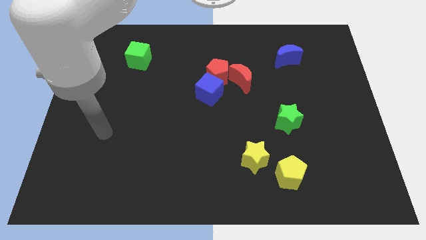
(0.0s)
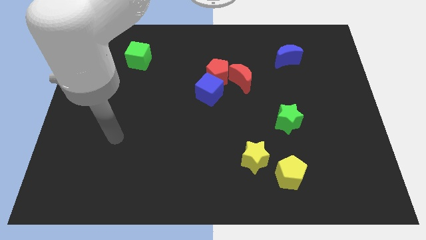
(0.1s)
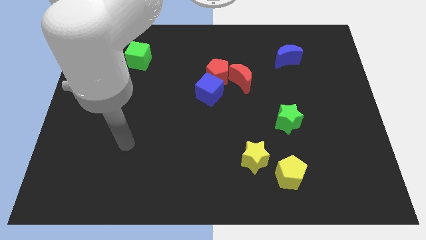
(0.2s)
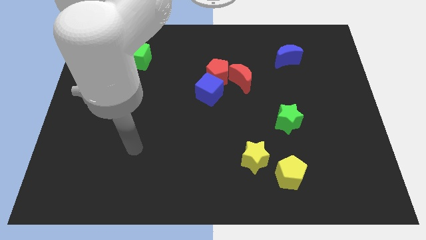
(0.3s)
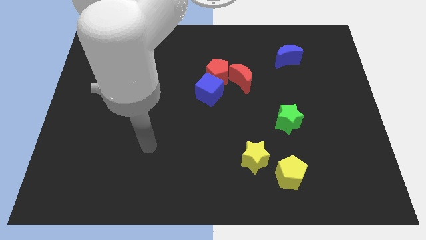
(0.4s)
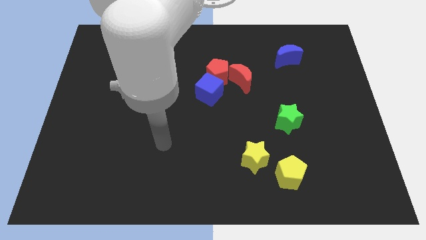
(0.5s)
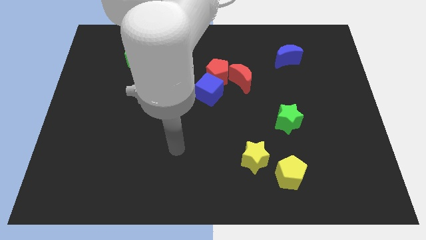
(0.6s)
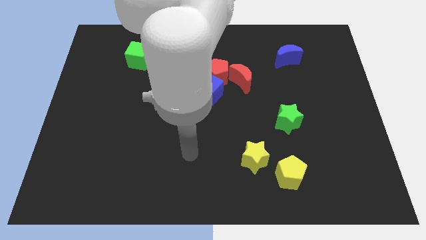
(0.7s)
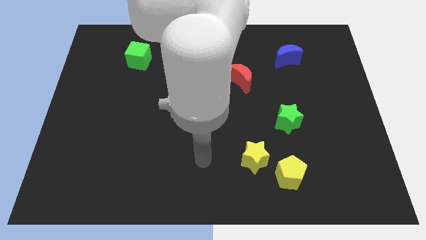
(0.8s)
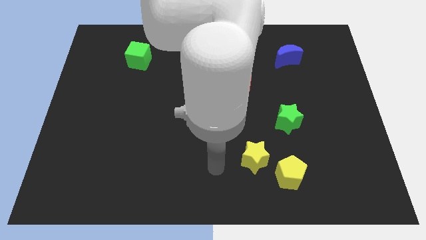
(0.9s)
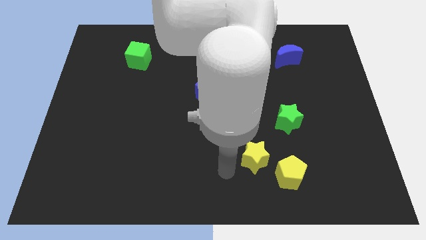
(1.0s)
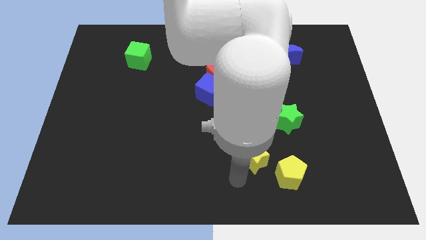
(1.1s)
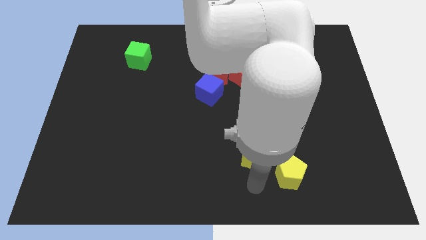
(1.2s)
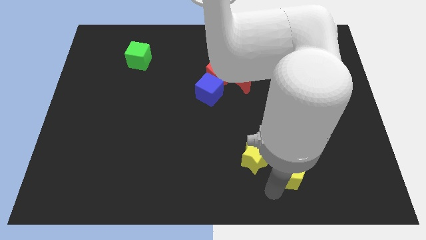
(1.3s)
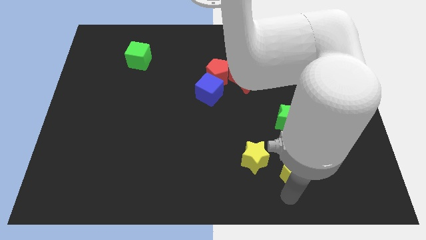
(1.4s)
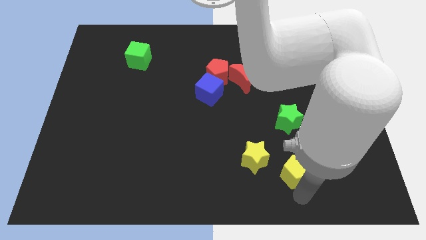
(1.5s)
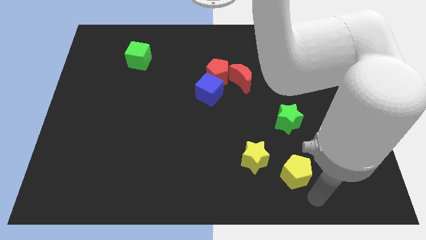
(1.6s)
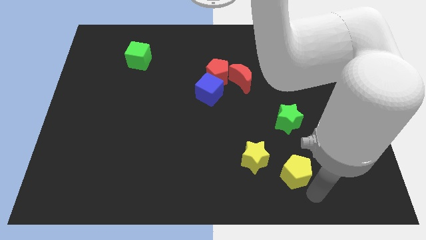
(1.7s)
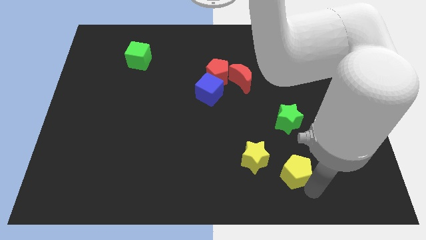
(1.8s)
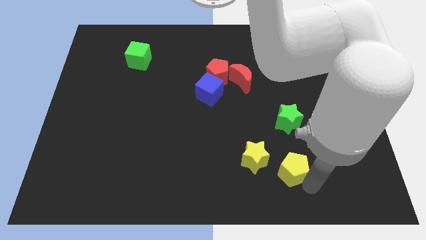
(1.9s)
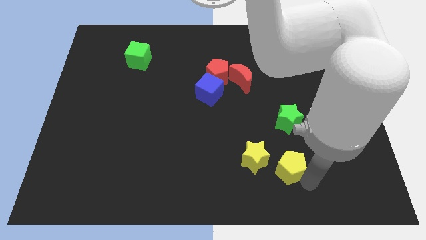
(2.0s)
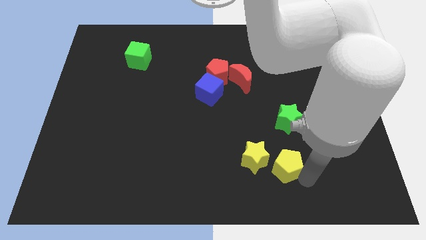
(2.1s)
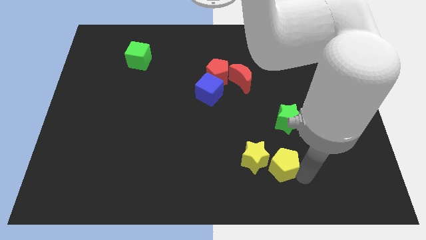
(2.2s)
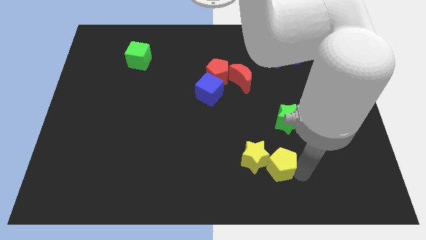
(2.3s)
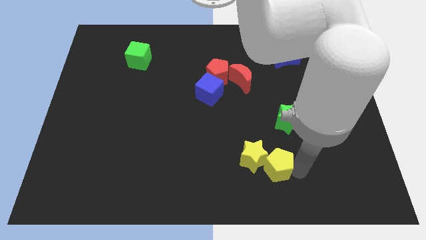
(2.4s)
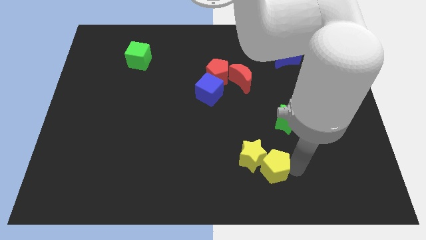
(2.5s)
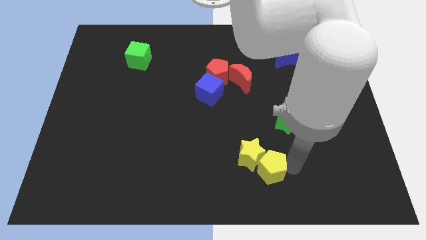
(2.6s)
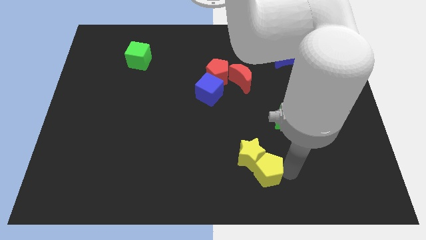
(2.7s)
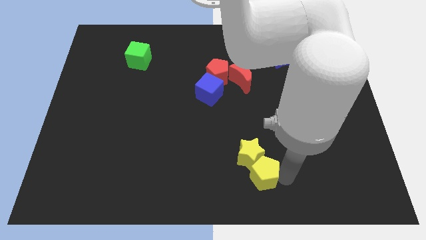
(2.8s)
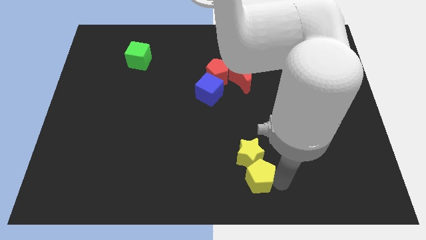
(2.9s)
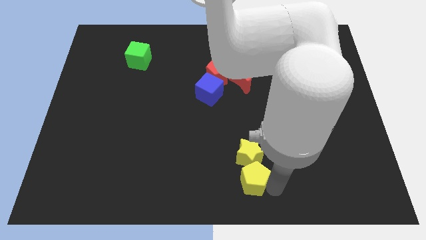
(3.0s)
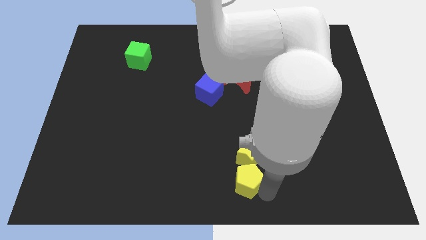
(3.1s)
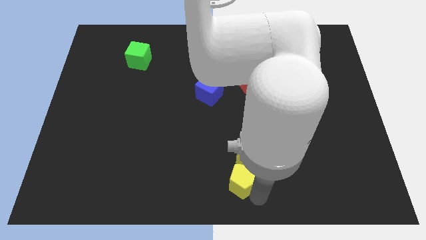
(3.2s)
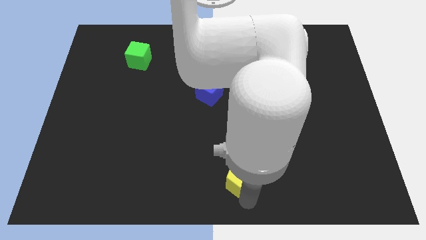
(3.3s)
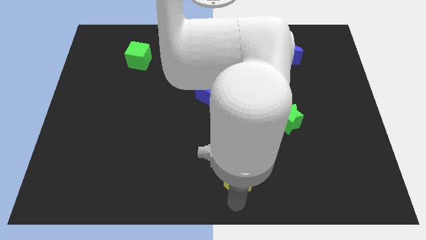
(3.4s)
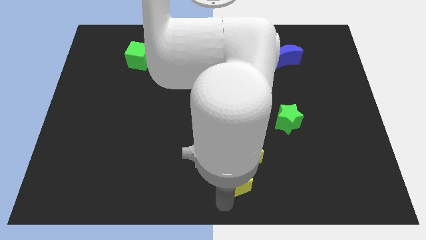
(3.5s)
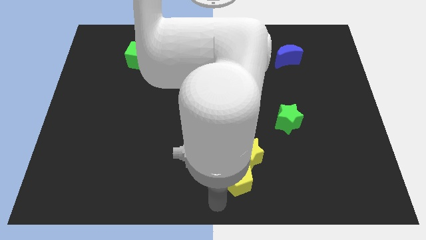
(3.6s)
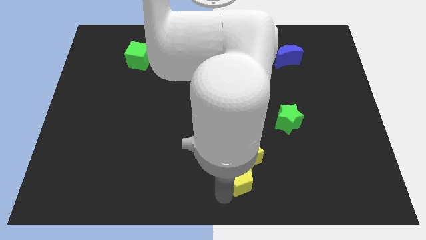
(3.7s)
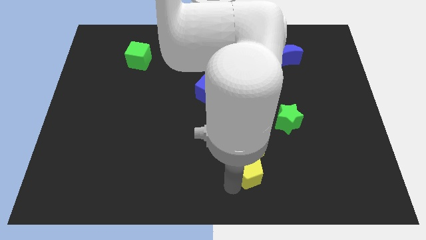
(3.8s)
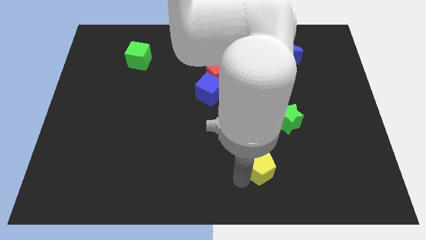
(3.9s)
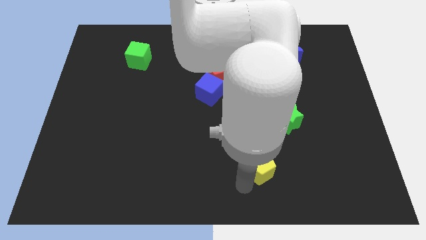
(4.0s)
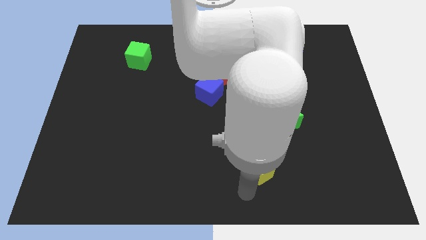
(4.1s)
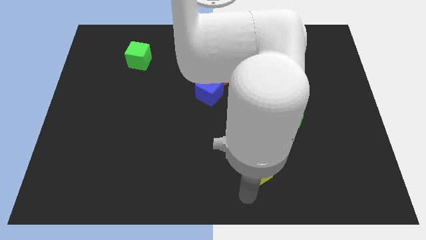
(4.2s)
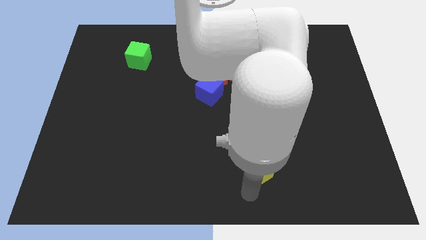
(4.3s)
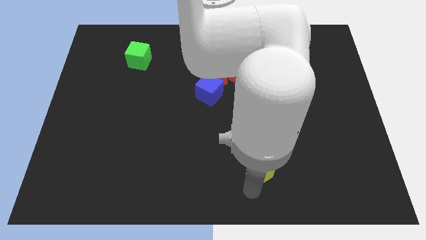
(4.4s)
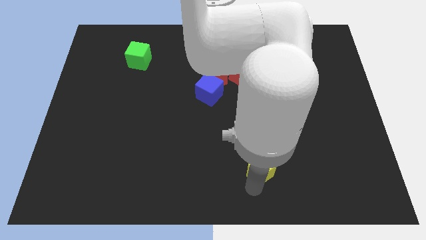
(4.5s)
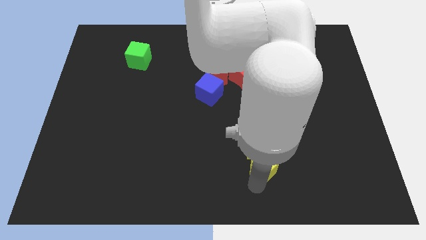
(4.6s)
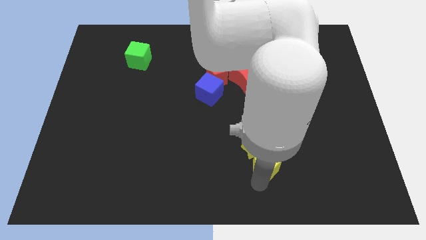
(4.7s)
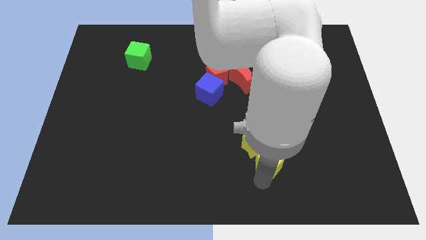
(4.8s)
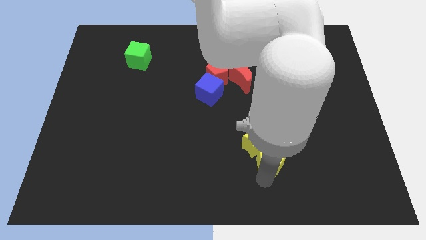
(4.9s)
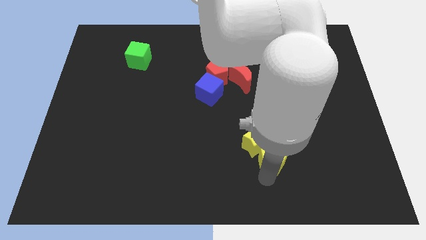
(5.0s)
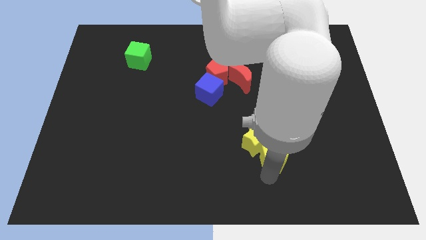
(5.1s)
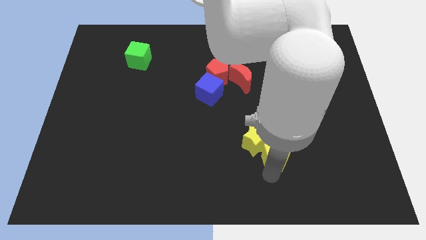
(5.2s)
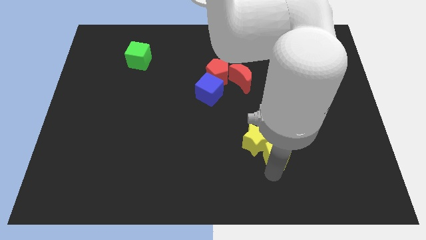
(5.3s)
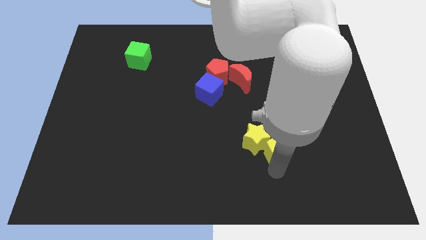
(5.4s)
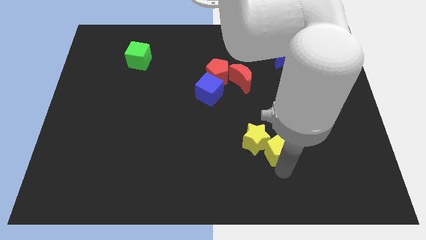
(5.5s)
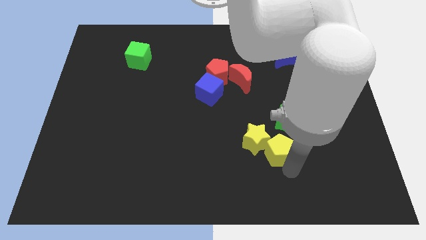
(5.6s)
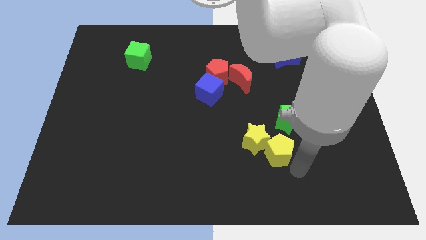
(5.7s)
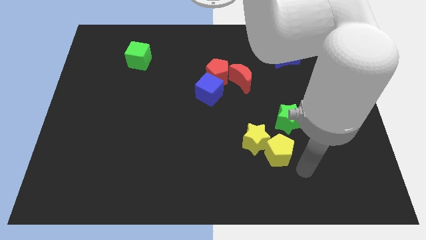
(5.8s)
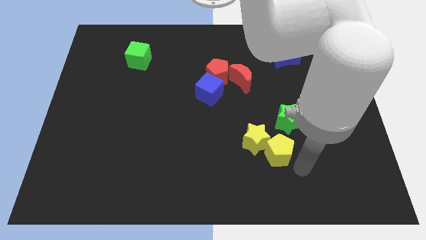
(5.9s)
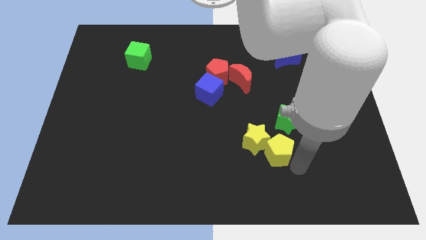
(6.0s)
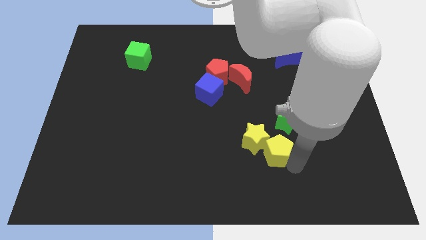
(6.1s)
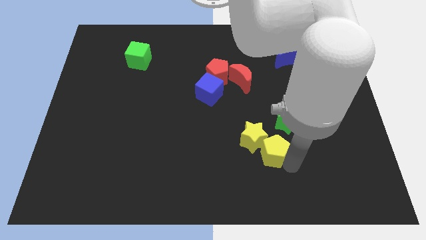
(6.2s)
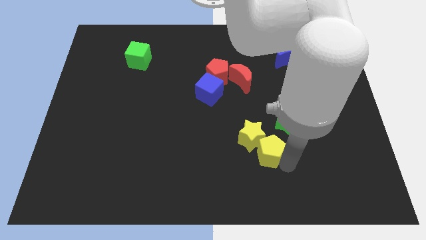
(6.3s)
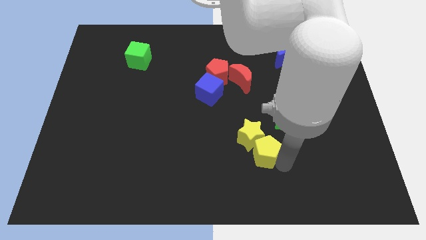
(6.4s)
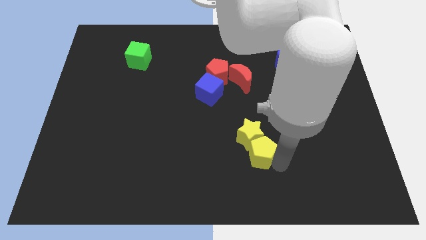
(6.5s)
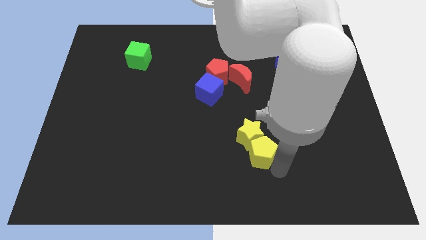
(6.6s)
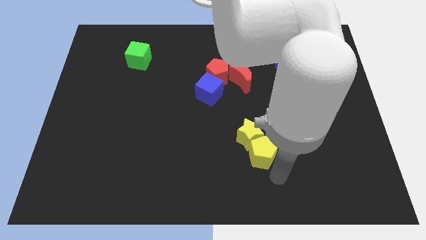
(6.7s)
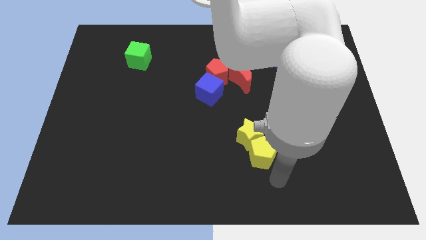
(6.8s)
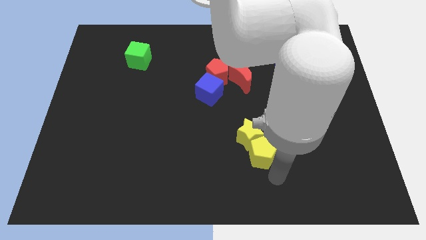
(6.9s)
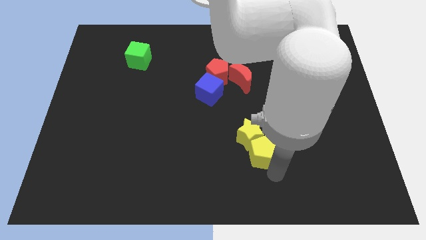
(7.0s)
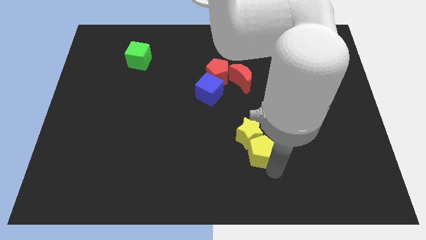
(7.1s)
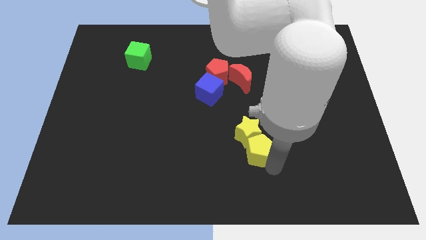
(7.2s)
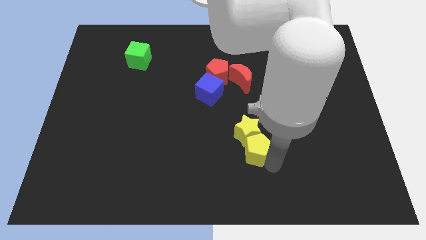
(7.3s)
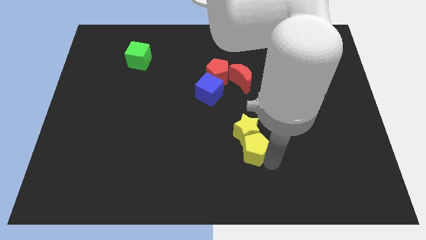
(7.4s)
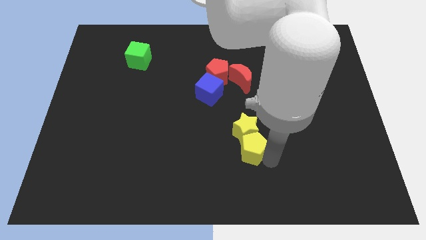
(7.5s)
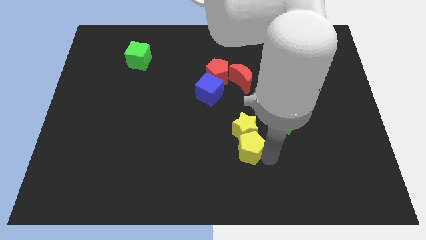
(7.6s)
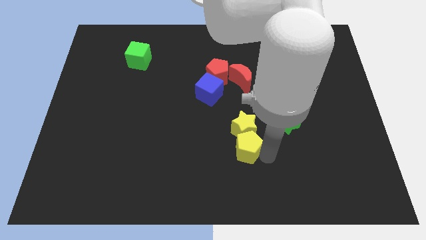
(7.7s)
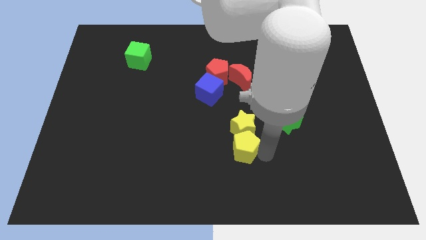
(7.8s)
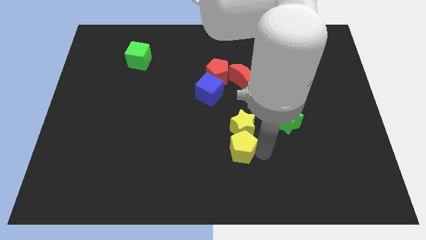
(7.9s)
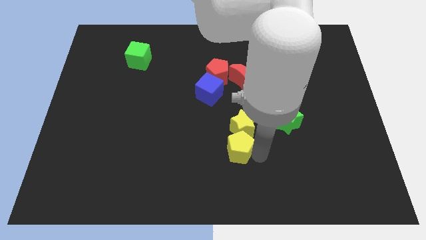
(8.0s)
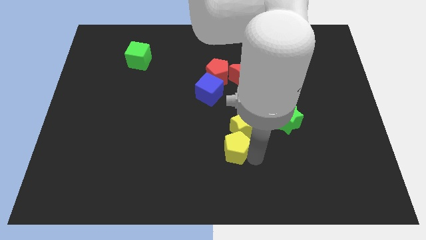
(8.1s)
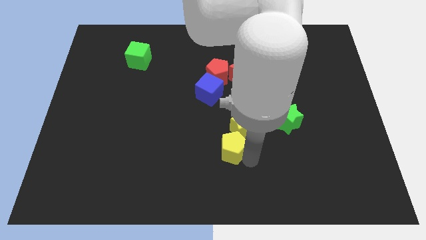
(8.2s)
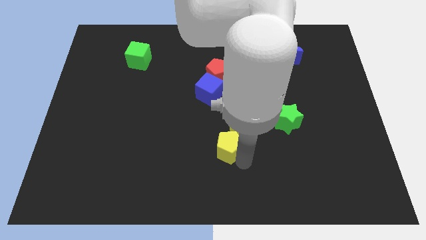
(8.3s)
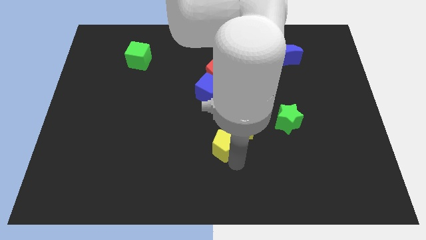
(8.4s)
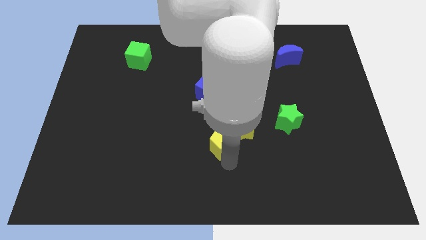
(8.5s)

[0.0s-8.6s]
push the yellow pentagon to the bottom side of the blue cube
